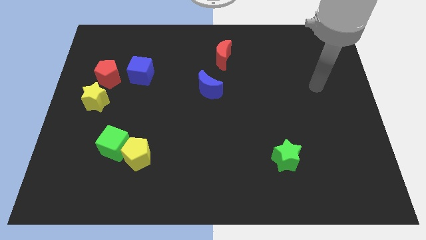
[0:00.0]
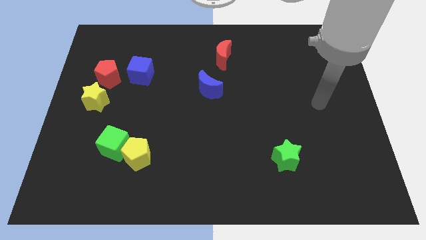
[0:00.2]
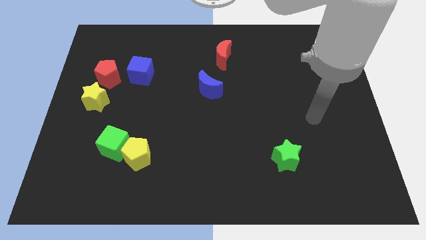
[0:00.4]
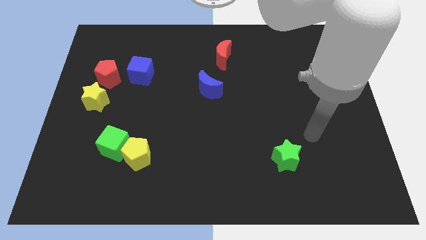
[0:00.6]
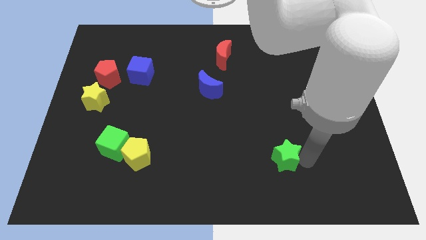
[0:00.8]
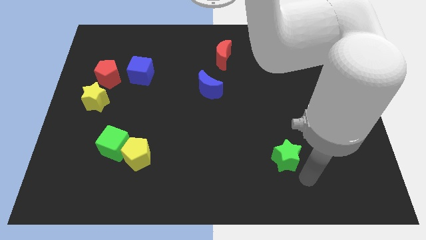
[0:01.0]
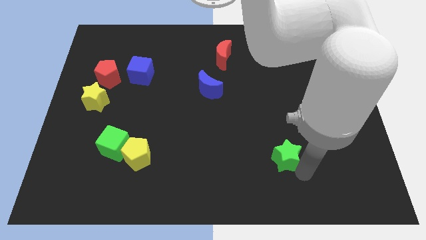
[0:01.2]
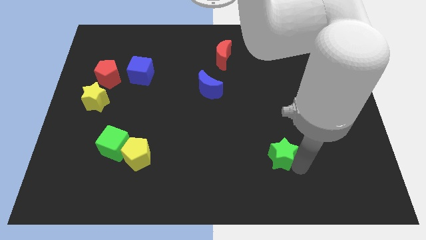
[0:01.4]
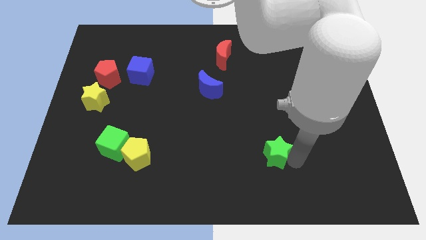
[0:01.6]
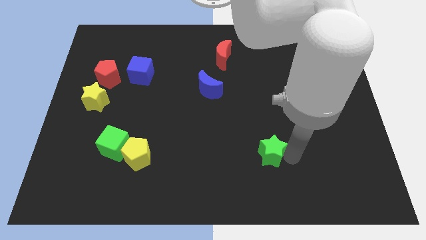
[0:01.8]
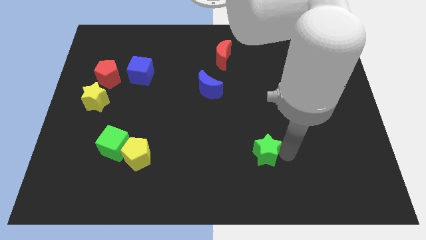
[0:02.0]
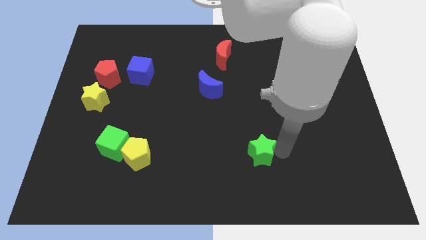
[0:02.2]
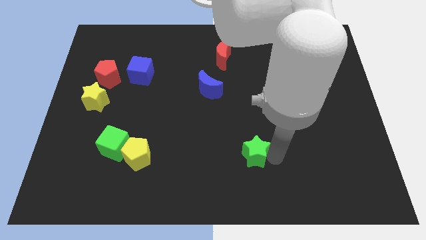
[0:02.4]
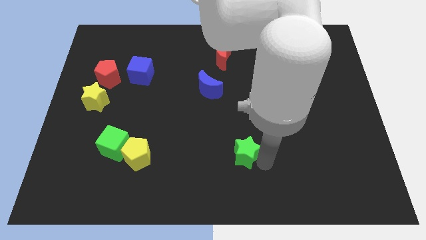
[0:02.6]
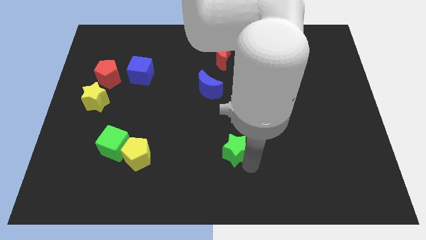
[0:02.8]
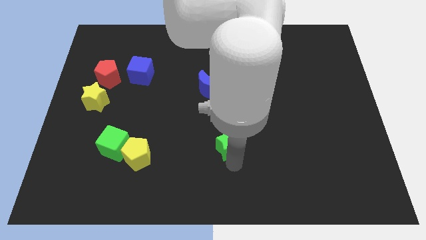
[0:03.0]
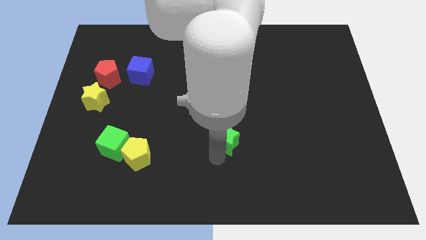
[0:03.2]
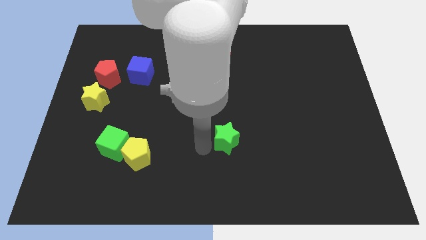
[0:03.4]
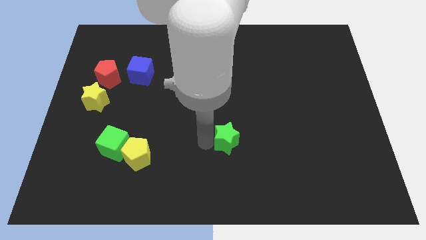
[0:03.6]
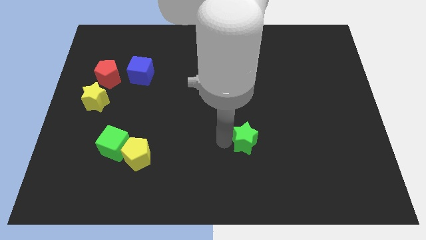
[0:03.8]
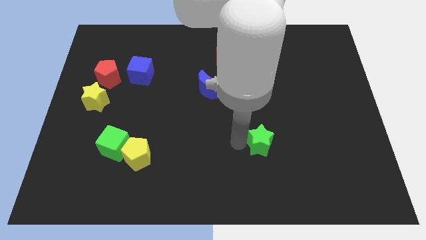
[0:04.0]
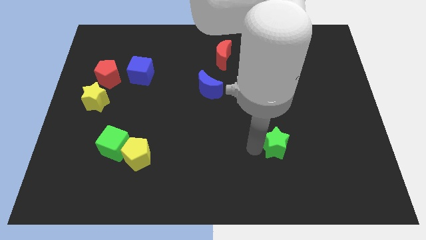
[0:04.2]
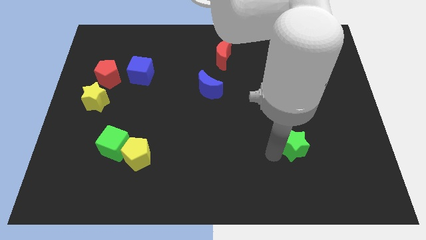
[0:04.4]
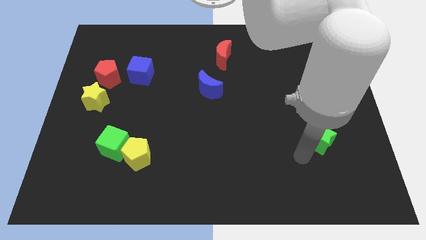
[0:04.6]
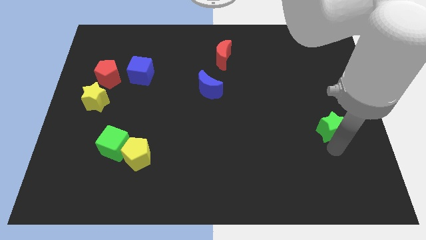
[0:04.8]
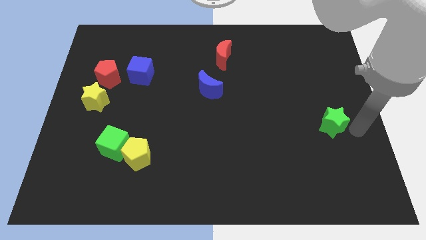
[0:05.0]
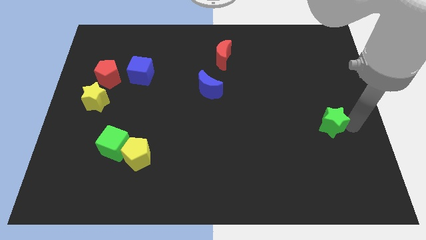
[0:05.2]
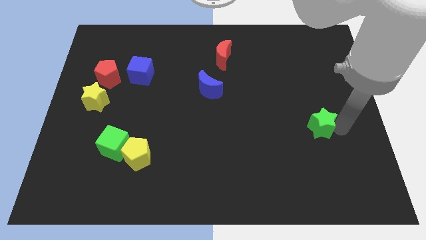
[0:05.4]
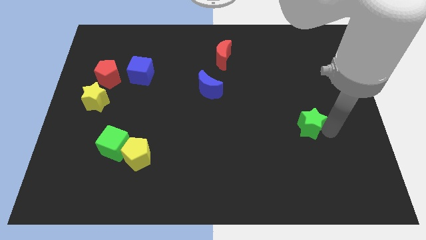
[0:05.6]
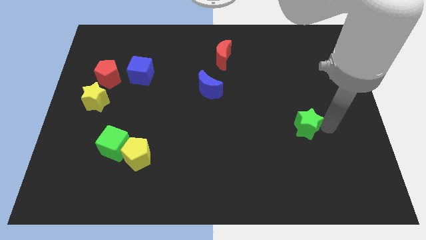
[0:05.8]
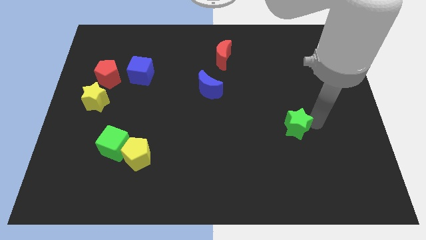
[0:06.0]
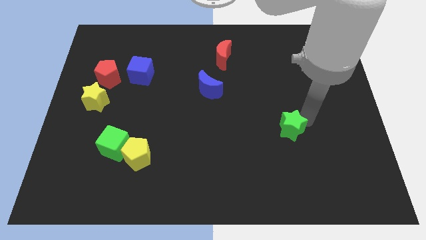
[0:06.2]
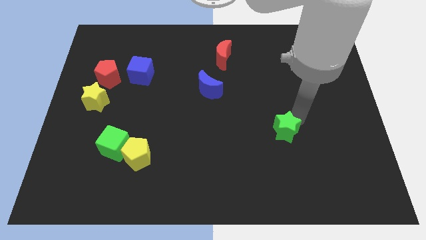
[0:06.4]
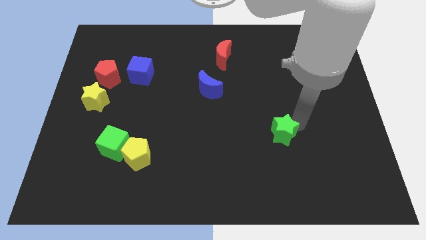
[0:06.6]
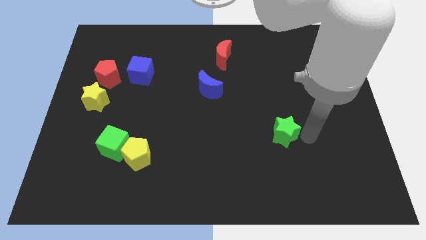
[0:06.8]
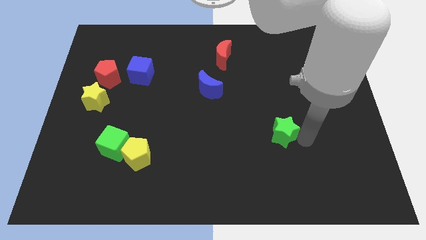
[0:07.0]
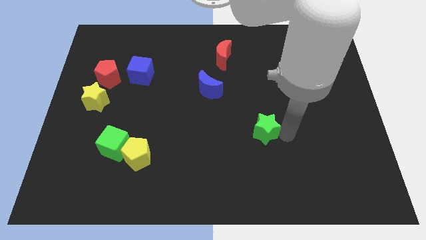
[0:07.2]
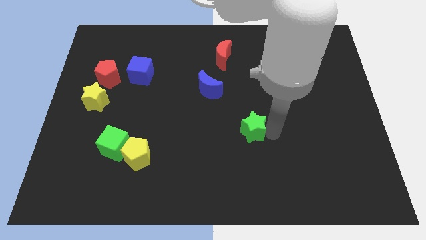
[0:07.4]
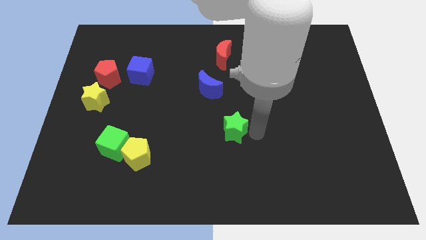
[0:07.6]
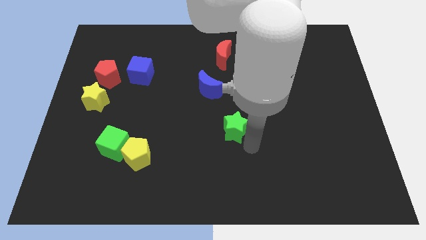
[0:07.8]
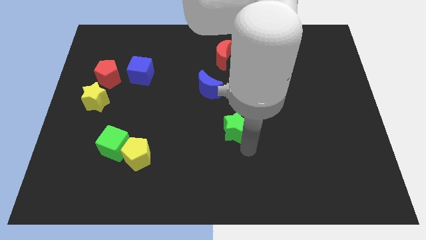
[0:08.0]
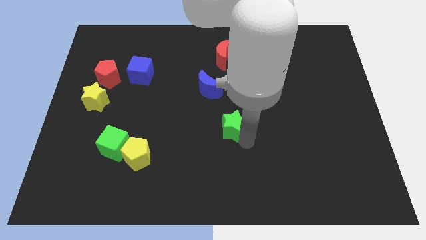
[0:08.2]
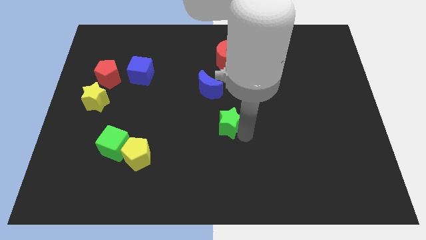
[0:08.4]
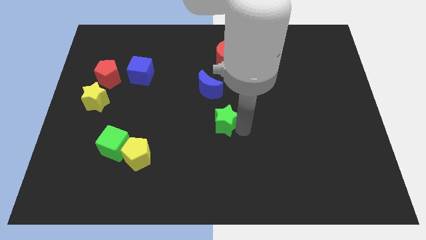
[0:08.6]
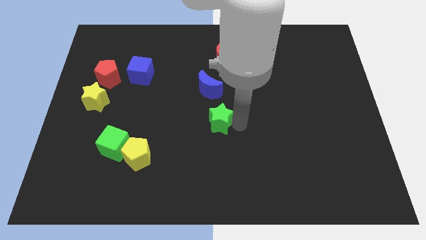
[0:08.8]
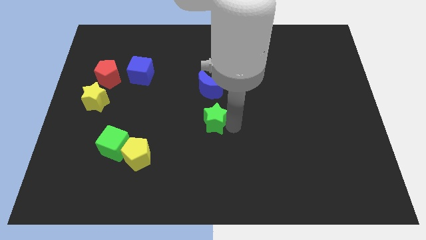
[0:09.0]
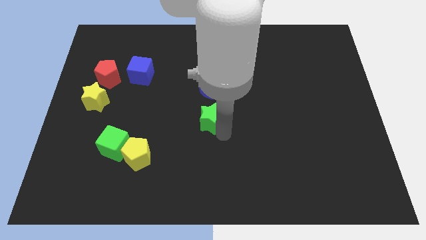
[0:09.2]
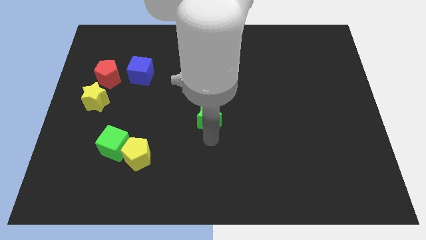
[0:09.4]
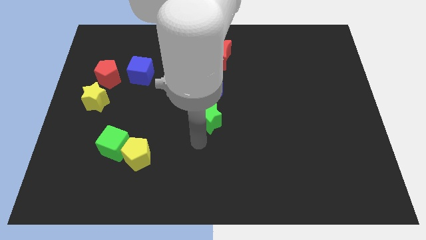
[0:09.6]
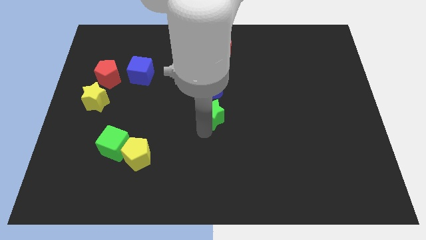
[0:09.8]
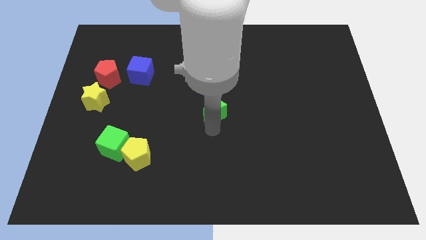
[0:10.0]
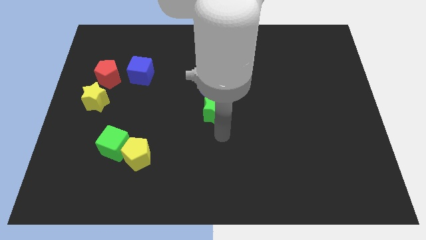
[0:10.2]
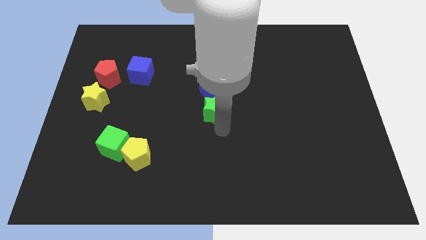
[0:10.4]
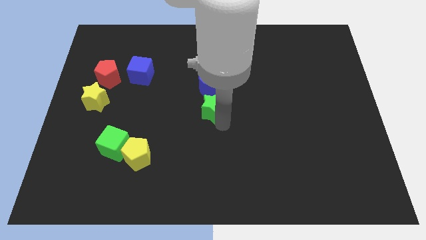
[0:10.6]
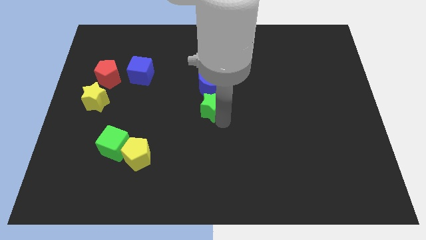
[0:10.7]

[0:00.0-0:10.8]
push the green star close to the blue moon

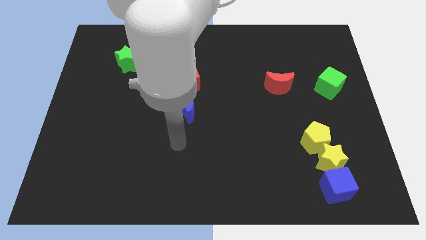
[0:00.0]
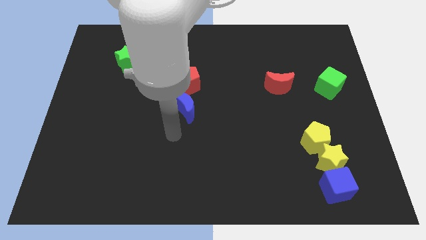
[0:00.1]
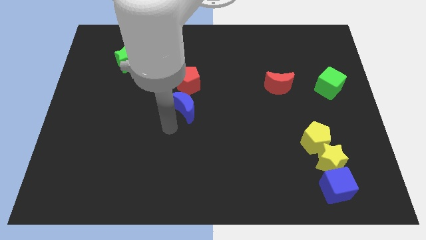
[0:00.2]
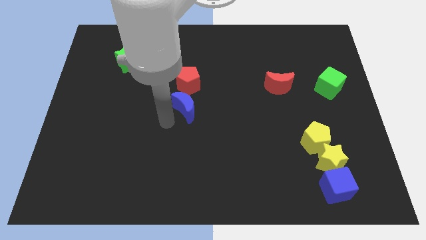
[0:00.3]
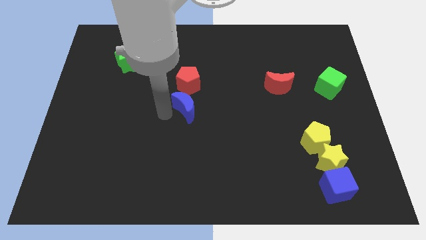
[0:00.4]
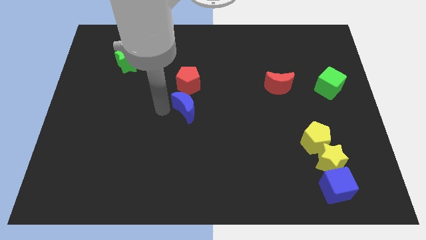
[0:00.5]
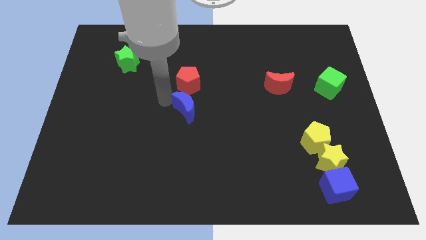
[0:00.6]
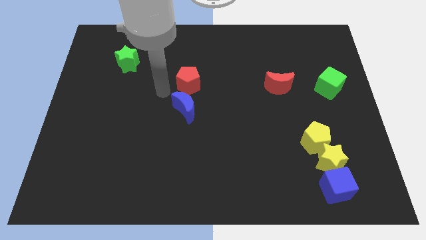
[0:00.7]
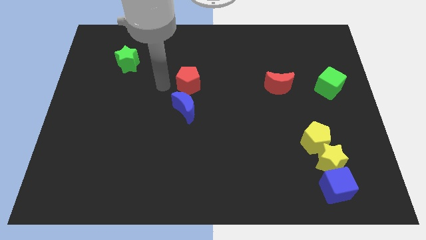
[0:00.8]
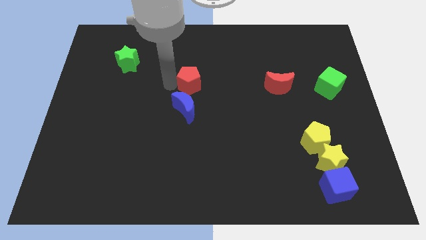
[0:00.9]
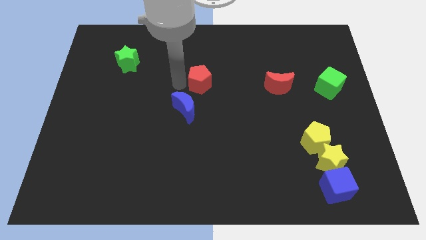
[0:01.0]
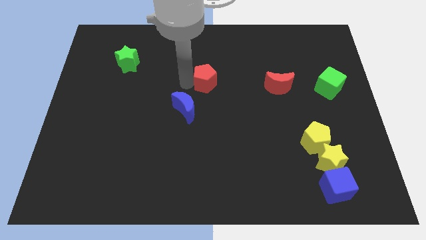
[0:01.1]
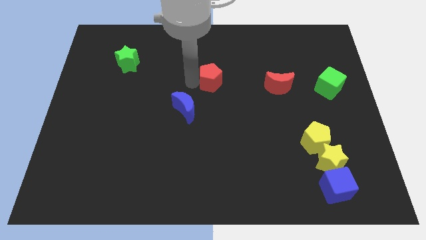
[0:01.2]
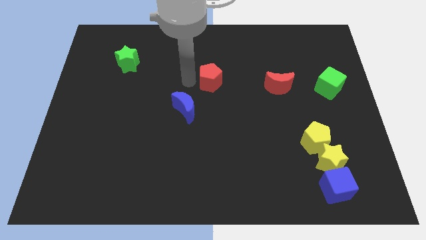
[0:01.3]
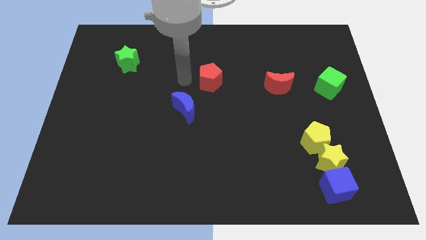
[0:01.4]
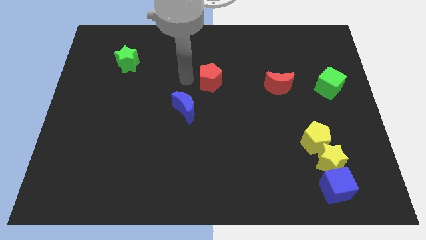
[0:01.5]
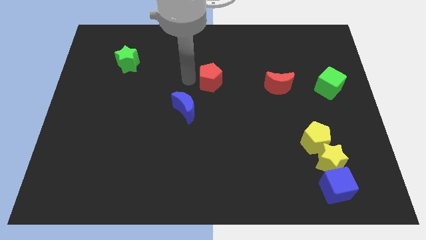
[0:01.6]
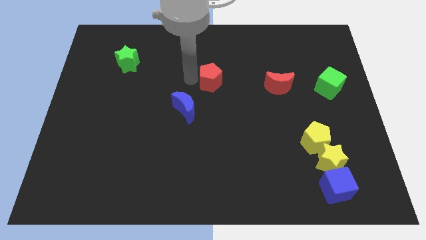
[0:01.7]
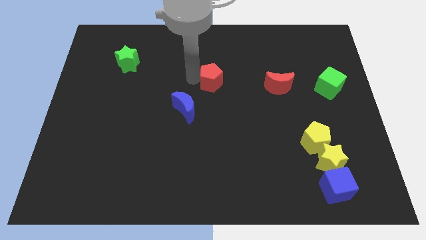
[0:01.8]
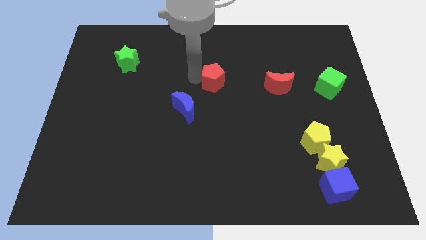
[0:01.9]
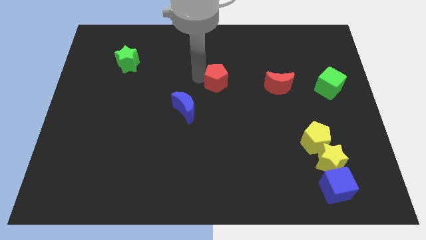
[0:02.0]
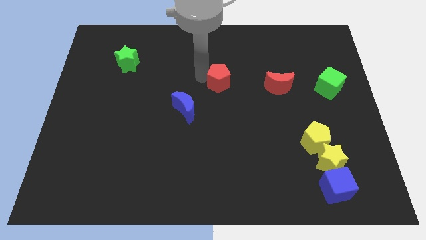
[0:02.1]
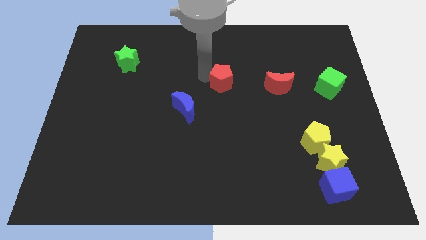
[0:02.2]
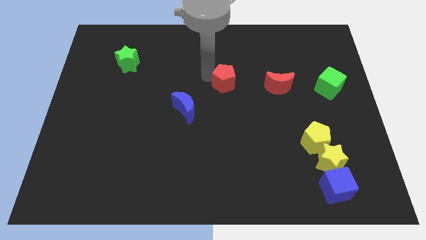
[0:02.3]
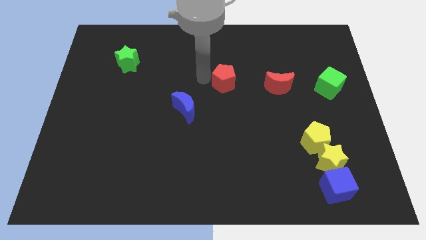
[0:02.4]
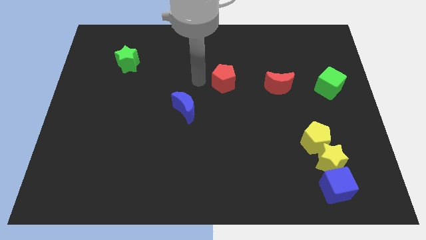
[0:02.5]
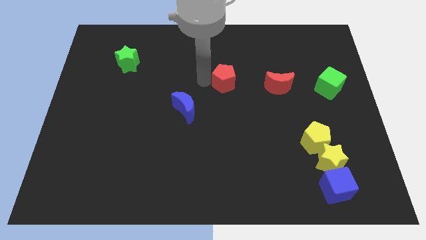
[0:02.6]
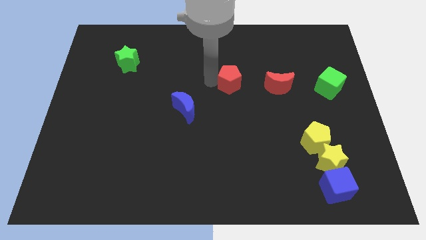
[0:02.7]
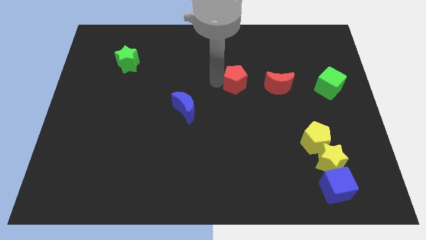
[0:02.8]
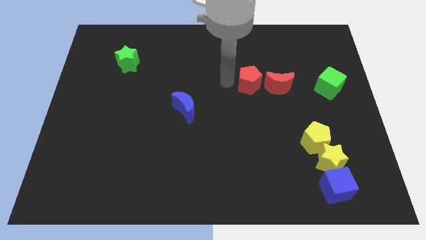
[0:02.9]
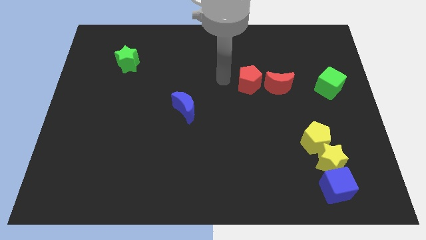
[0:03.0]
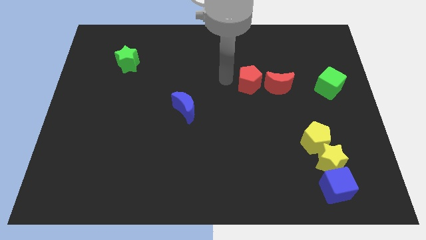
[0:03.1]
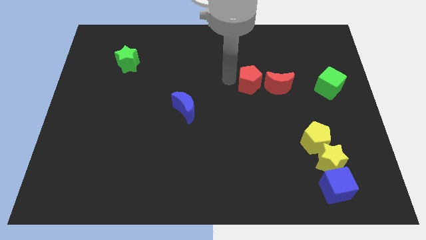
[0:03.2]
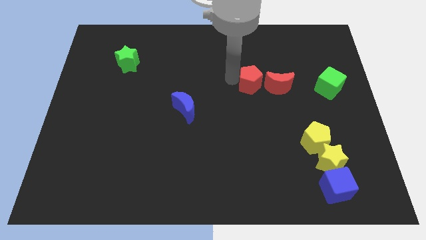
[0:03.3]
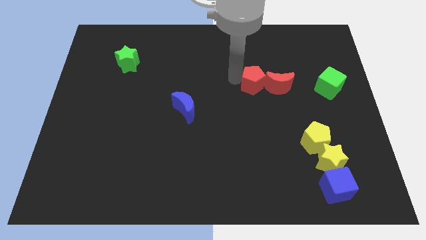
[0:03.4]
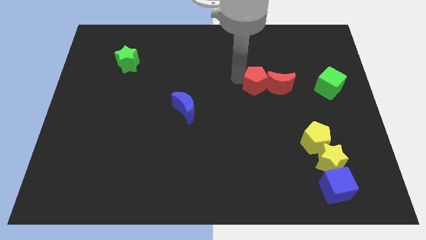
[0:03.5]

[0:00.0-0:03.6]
push the red pentagon to the red moon
